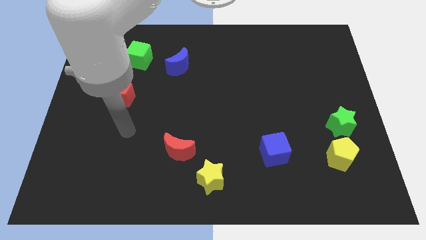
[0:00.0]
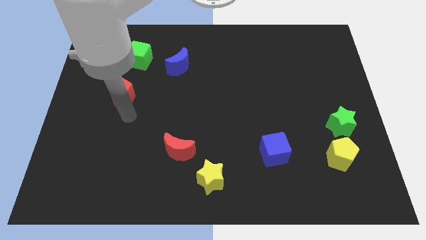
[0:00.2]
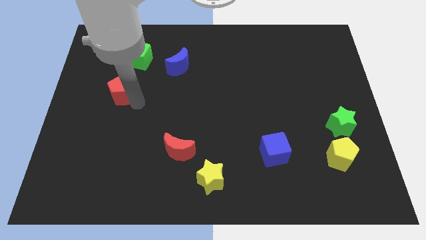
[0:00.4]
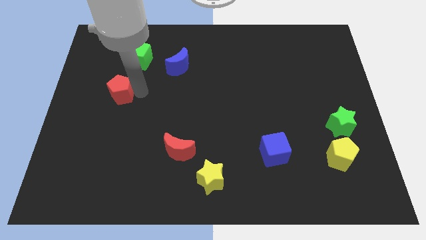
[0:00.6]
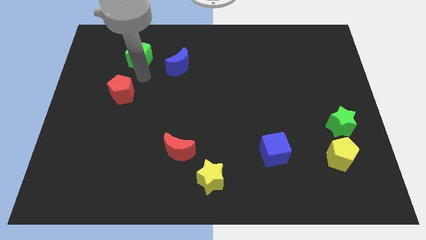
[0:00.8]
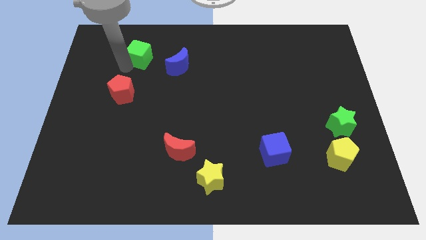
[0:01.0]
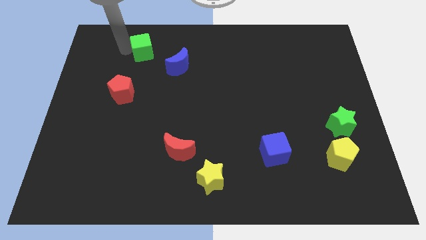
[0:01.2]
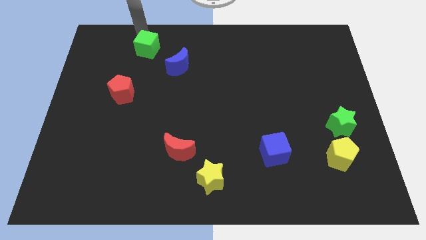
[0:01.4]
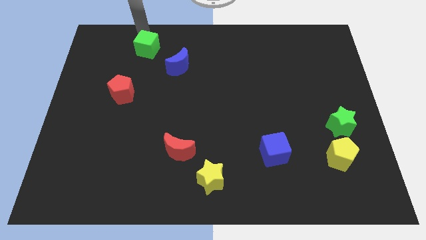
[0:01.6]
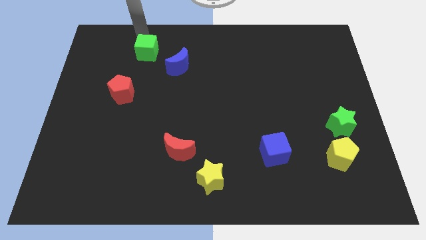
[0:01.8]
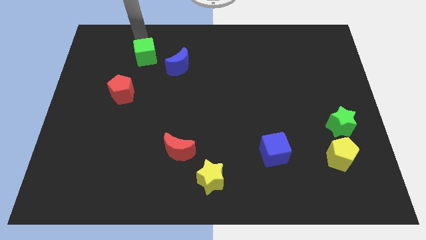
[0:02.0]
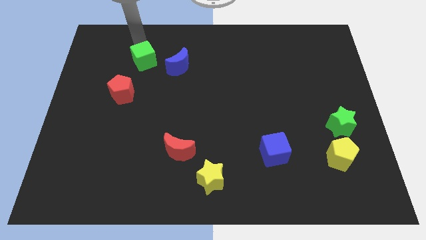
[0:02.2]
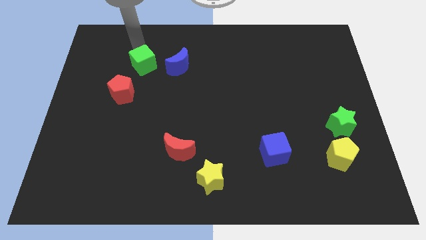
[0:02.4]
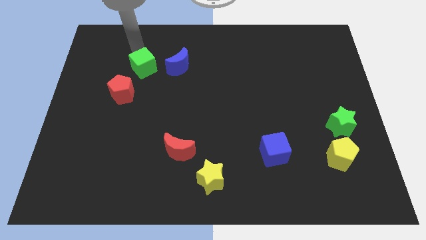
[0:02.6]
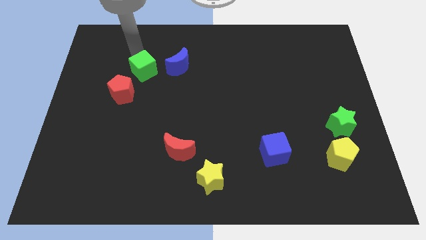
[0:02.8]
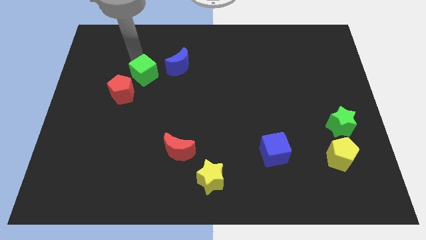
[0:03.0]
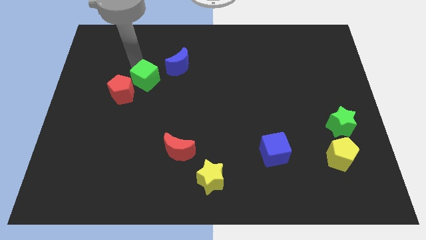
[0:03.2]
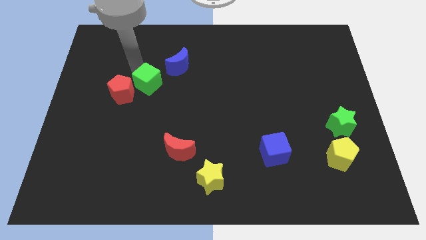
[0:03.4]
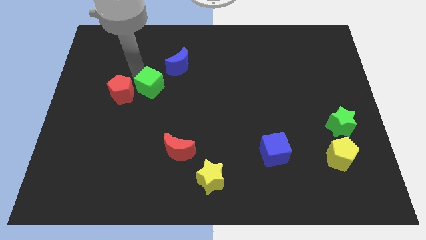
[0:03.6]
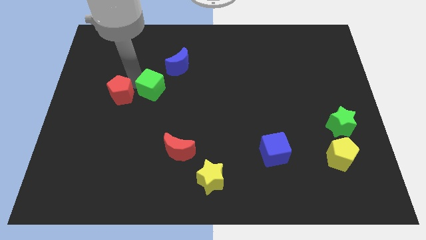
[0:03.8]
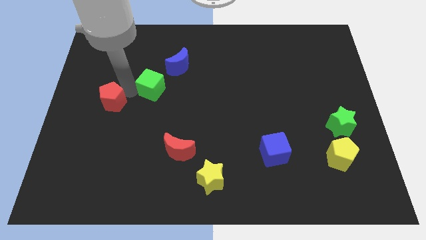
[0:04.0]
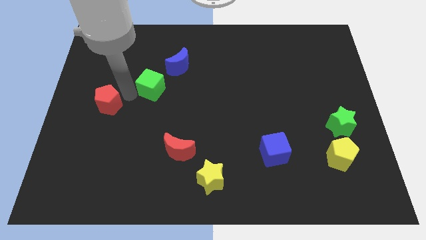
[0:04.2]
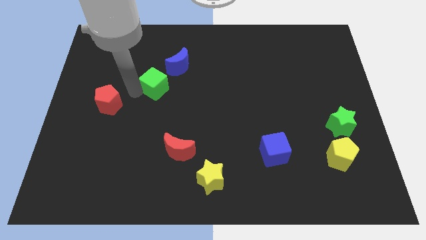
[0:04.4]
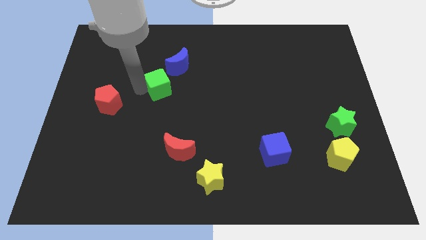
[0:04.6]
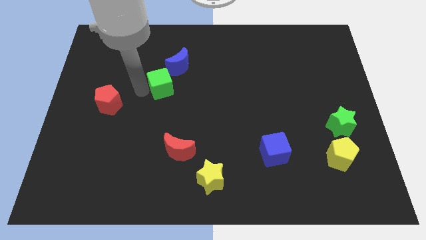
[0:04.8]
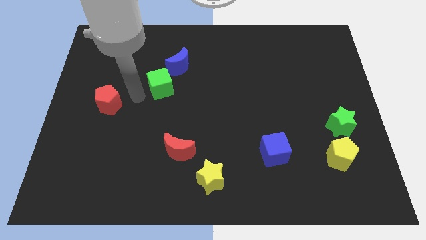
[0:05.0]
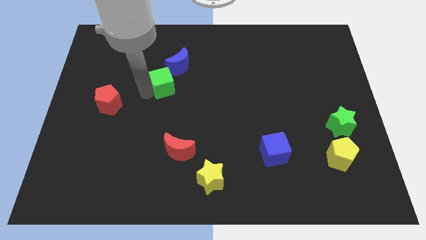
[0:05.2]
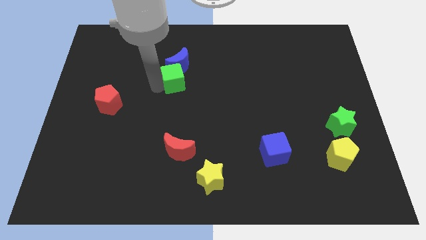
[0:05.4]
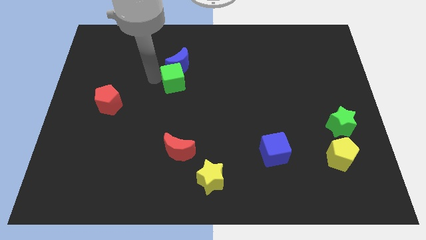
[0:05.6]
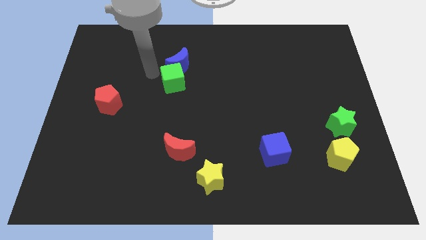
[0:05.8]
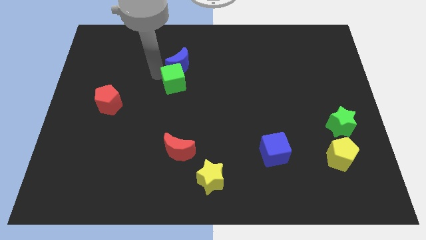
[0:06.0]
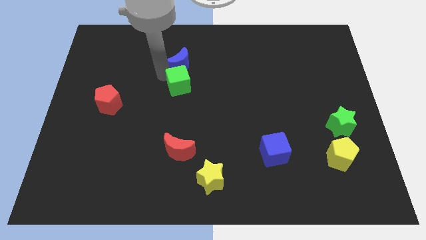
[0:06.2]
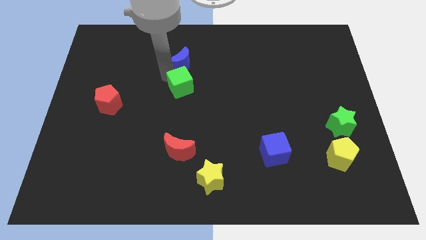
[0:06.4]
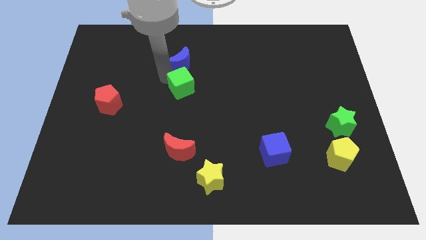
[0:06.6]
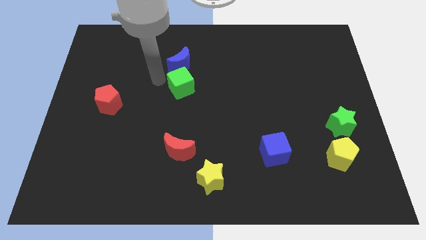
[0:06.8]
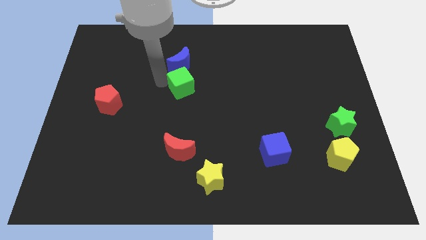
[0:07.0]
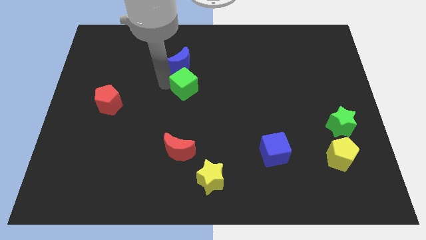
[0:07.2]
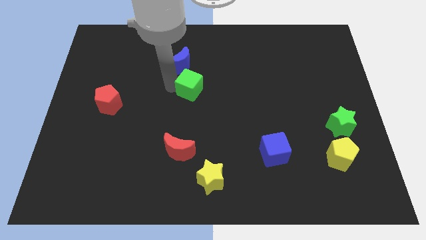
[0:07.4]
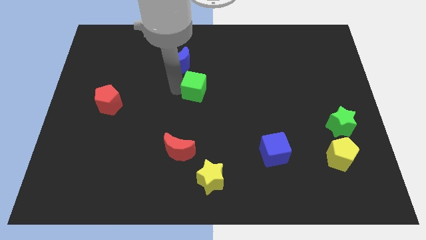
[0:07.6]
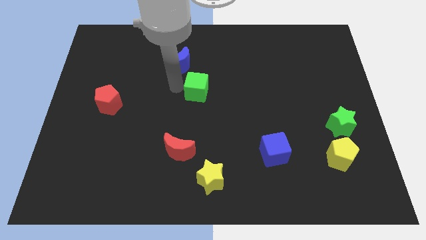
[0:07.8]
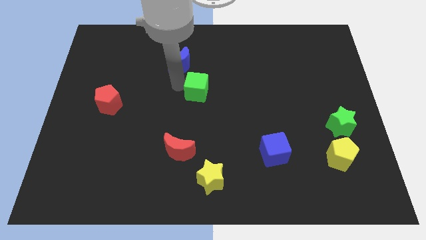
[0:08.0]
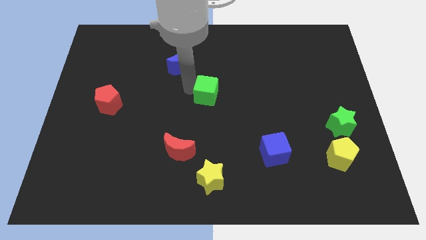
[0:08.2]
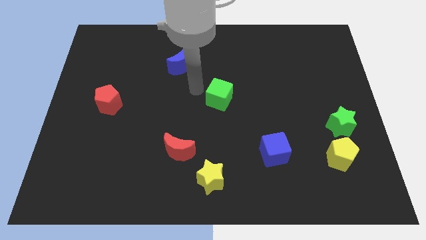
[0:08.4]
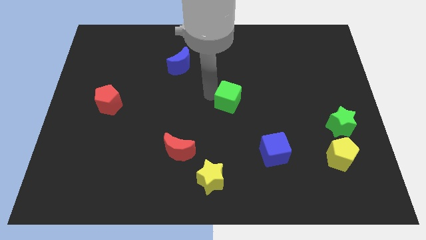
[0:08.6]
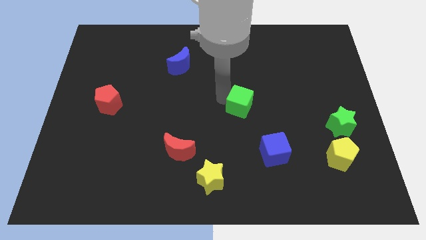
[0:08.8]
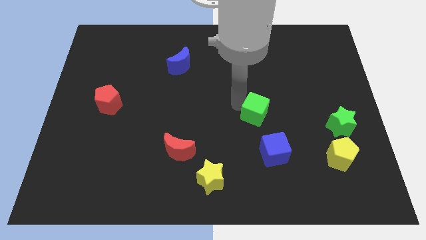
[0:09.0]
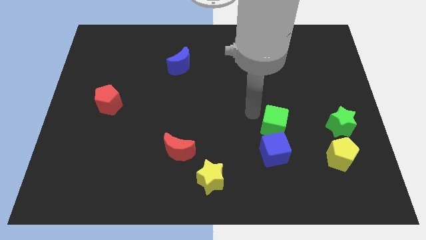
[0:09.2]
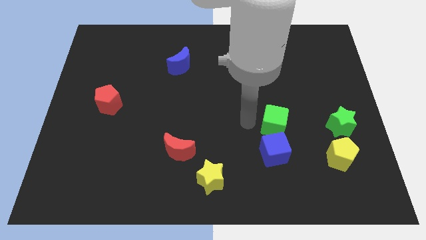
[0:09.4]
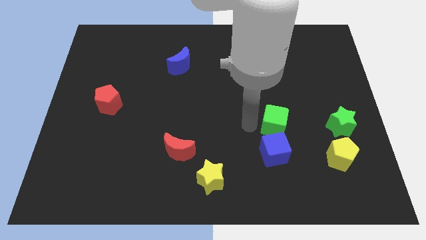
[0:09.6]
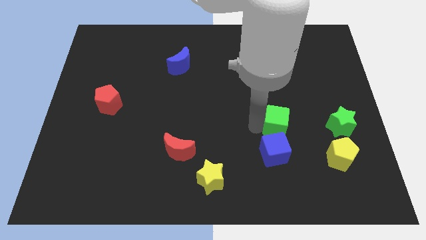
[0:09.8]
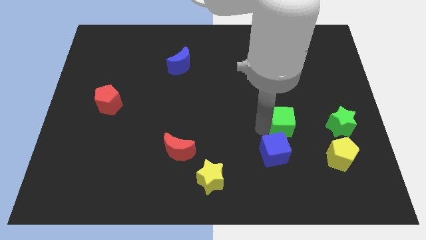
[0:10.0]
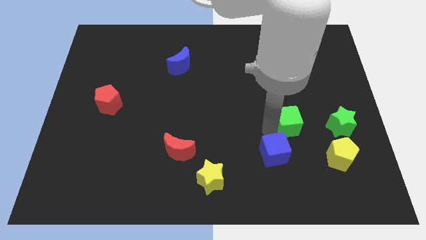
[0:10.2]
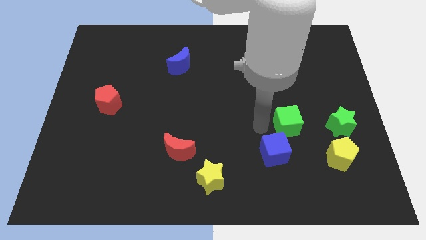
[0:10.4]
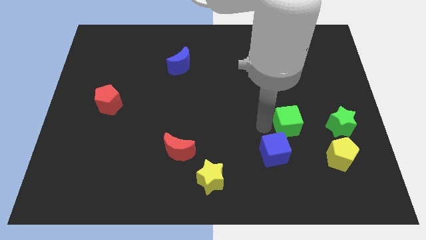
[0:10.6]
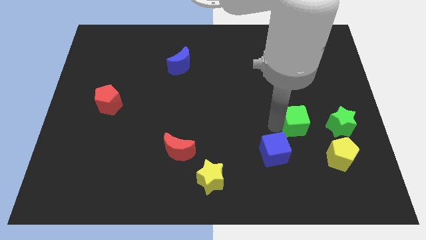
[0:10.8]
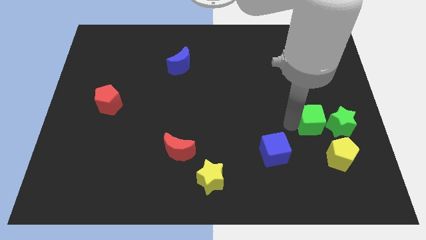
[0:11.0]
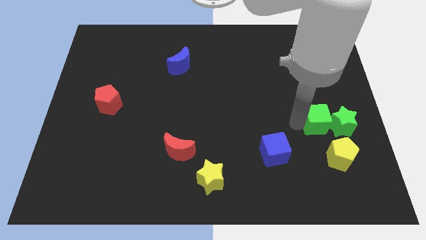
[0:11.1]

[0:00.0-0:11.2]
slide the green cube towards the green star

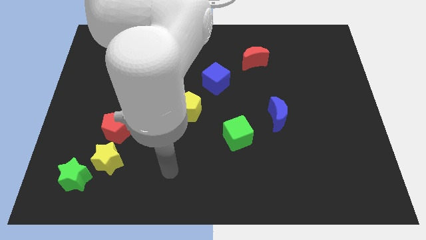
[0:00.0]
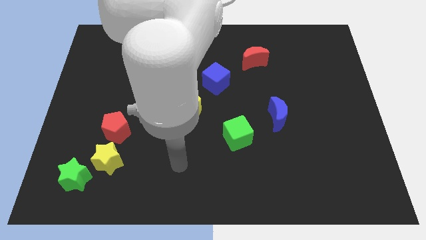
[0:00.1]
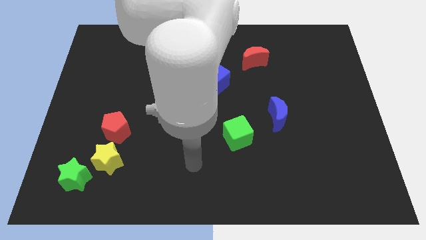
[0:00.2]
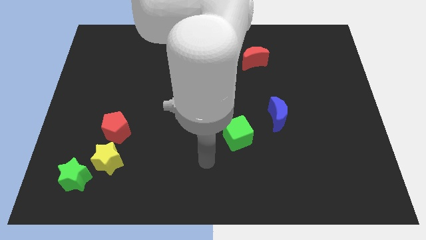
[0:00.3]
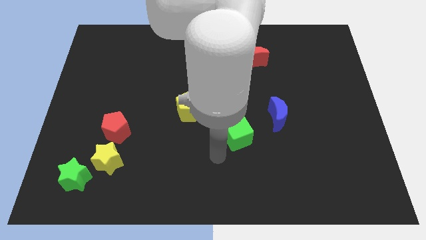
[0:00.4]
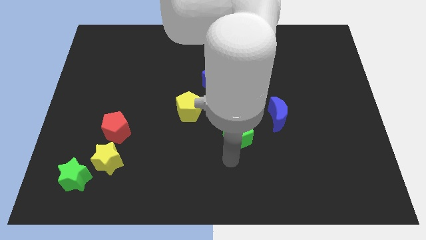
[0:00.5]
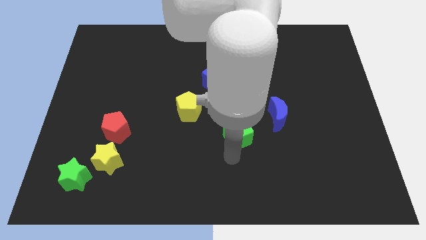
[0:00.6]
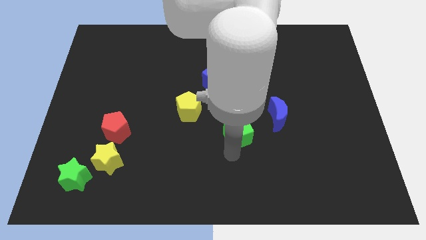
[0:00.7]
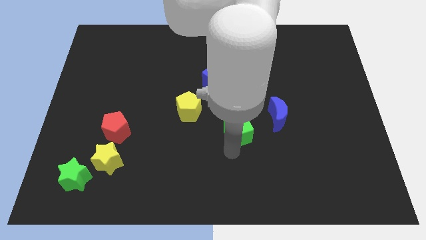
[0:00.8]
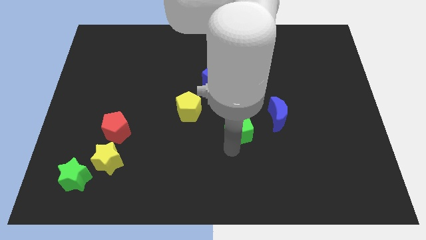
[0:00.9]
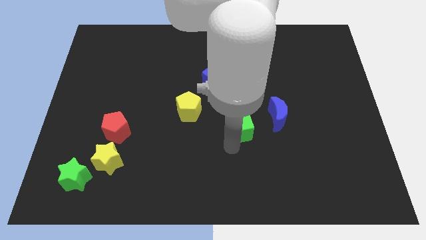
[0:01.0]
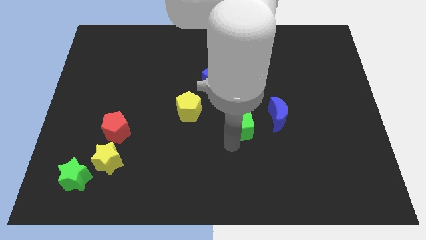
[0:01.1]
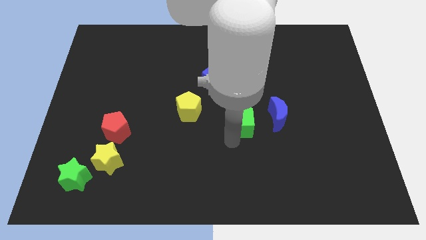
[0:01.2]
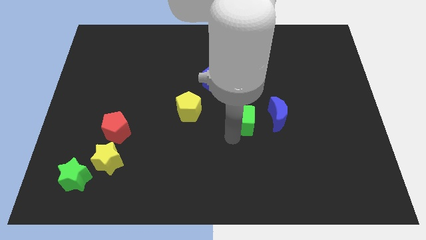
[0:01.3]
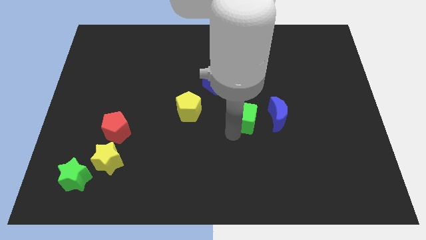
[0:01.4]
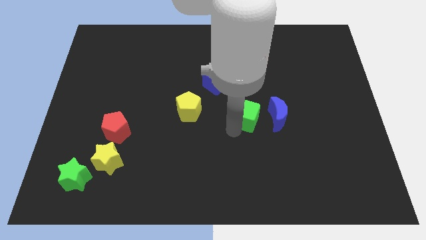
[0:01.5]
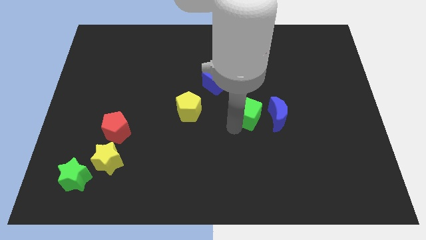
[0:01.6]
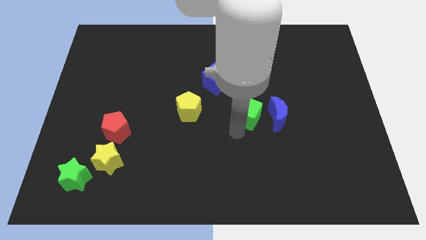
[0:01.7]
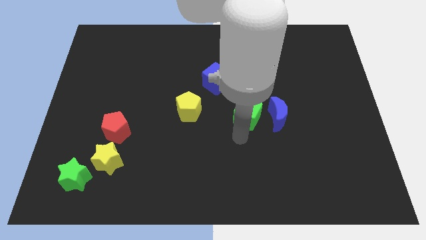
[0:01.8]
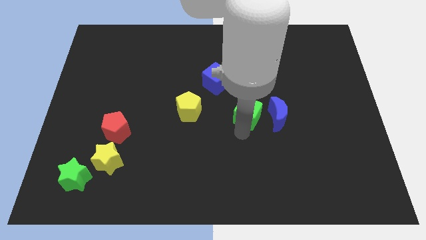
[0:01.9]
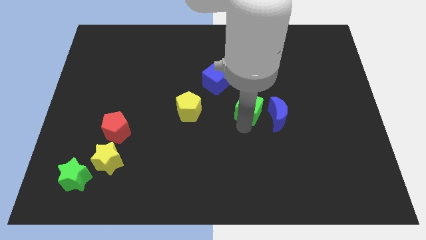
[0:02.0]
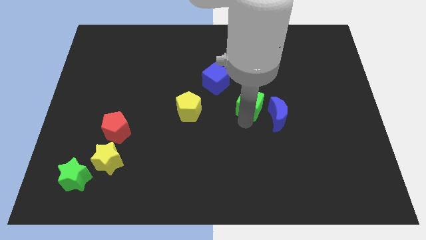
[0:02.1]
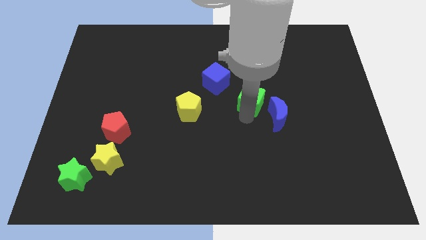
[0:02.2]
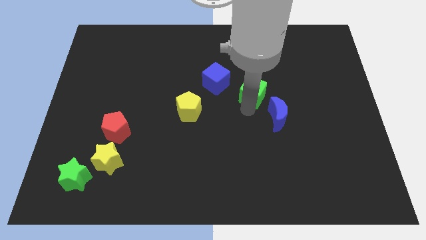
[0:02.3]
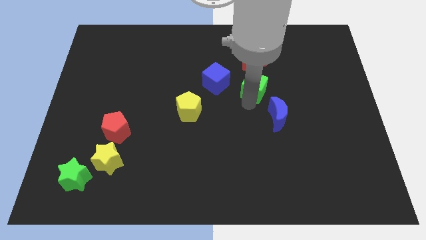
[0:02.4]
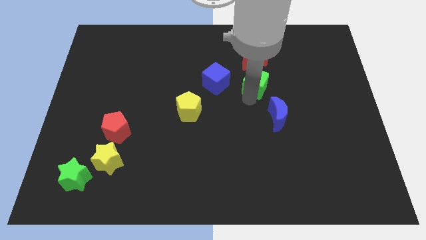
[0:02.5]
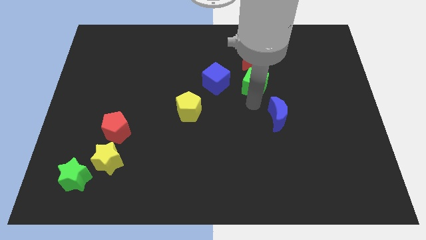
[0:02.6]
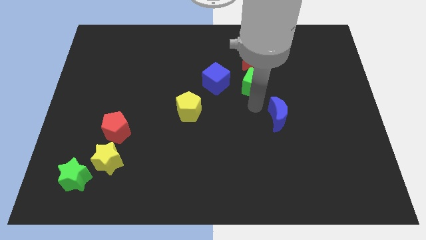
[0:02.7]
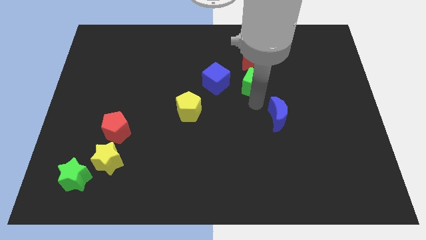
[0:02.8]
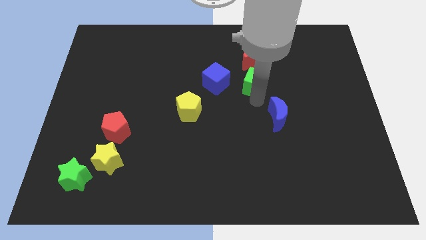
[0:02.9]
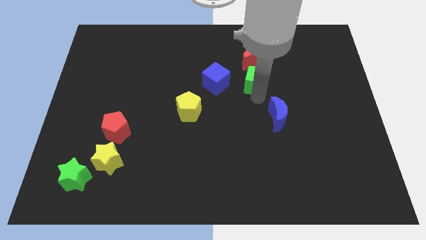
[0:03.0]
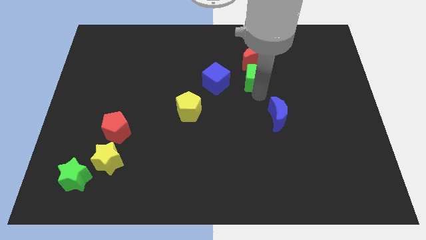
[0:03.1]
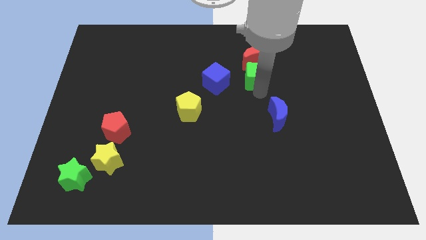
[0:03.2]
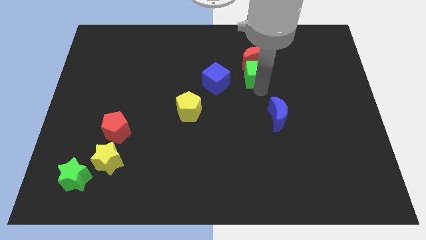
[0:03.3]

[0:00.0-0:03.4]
slide the green cube to the red moon
